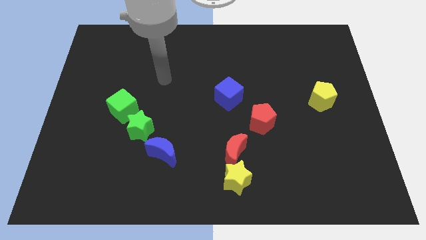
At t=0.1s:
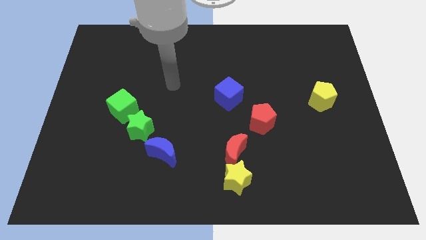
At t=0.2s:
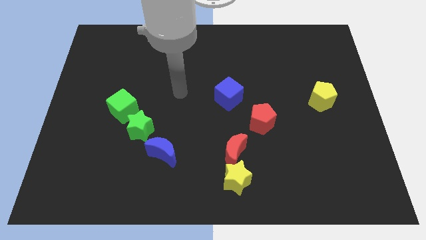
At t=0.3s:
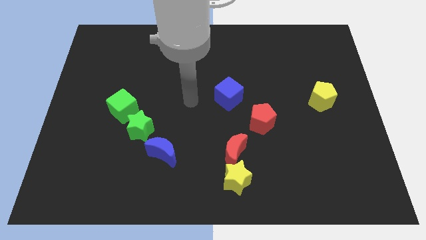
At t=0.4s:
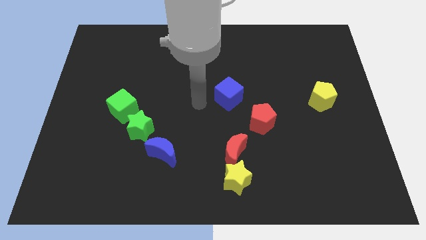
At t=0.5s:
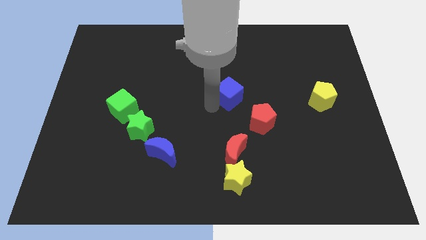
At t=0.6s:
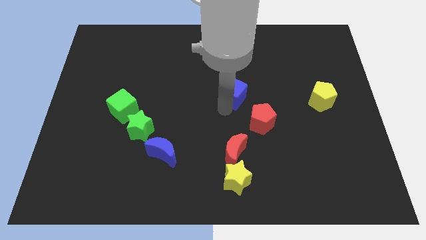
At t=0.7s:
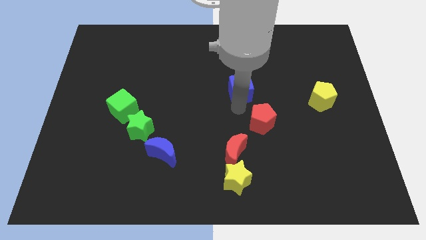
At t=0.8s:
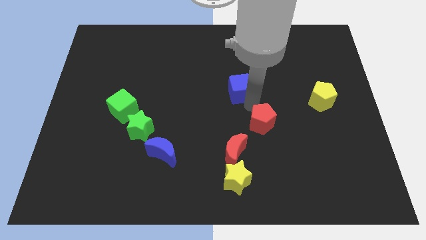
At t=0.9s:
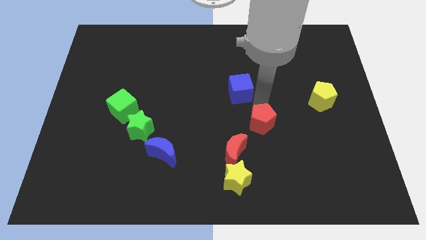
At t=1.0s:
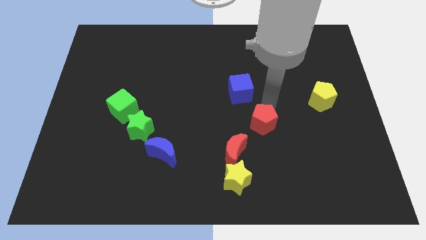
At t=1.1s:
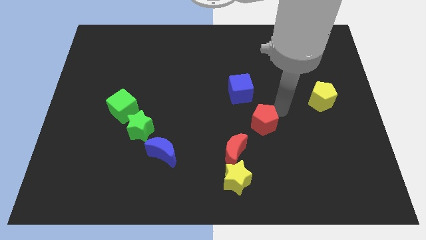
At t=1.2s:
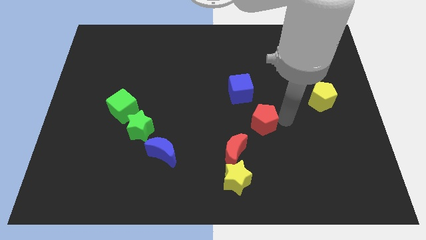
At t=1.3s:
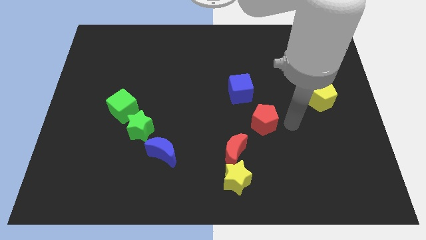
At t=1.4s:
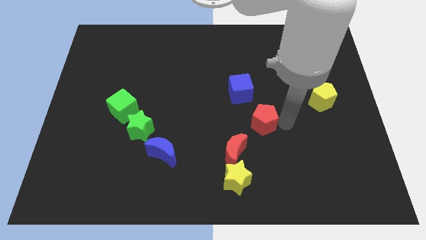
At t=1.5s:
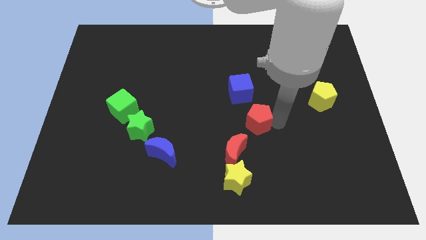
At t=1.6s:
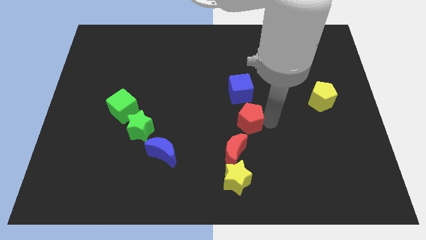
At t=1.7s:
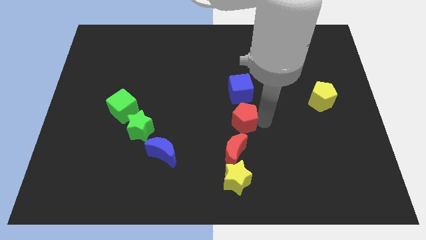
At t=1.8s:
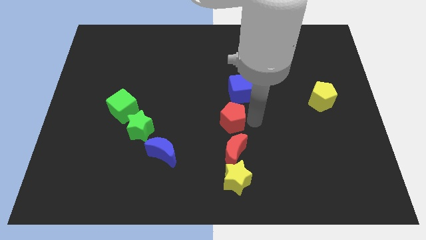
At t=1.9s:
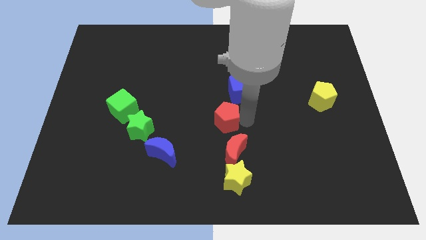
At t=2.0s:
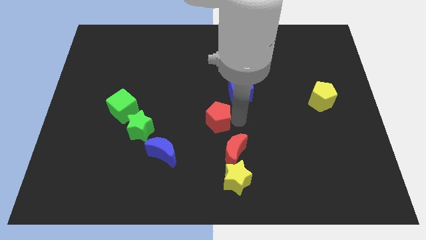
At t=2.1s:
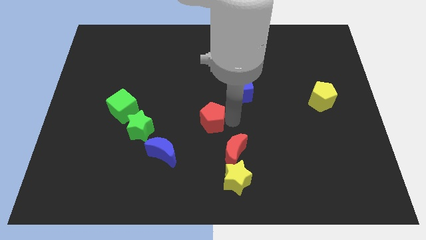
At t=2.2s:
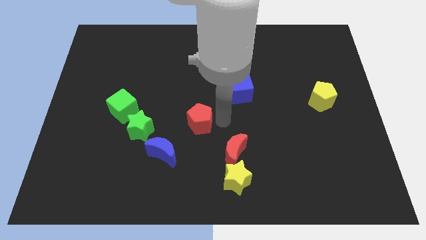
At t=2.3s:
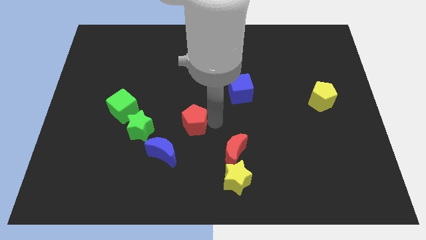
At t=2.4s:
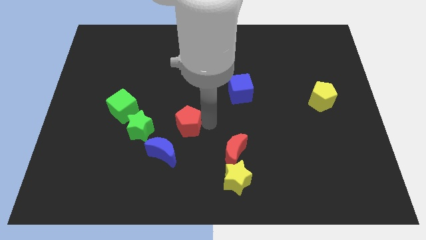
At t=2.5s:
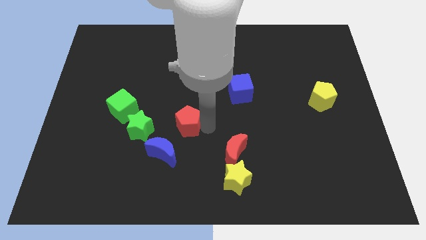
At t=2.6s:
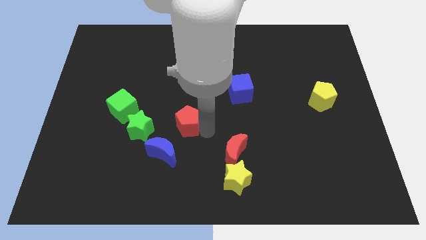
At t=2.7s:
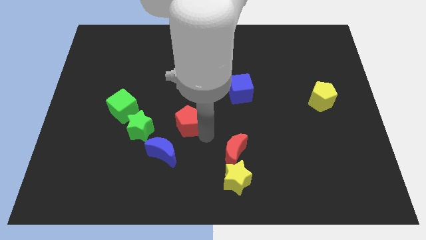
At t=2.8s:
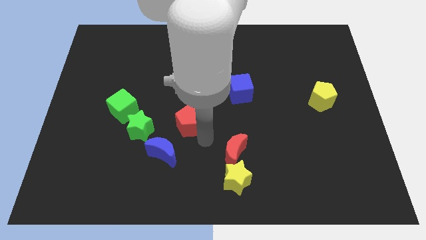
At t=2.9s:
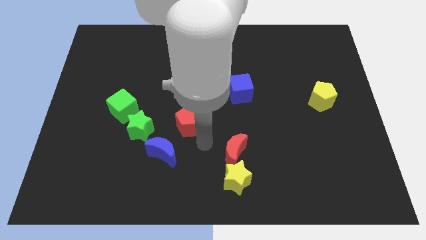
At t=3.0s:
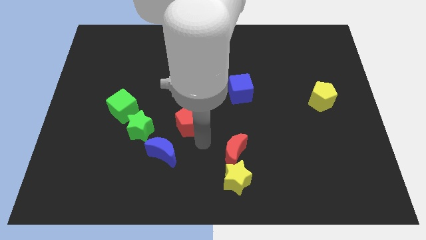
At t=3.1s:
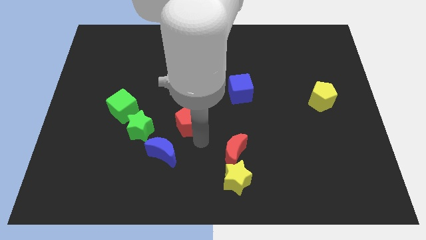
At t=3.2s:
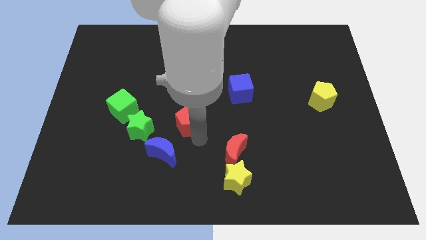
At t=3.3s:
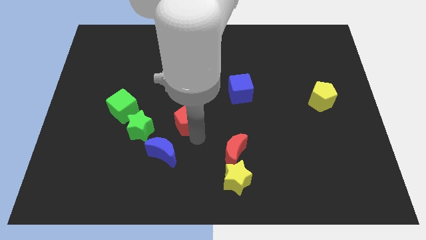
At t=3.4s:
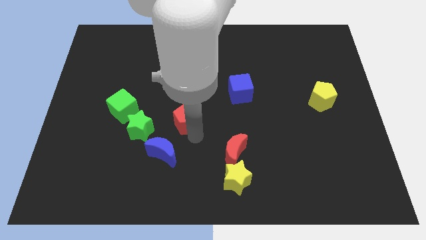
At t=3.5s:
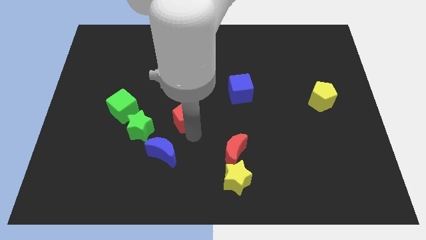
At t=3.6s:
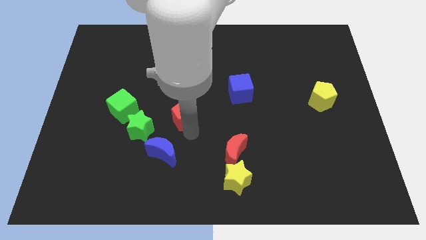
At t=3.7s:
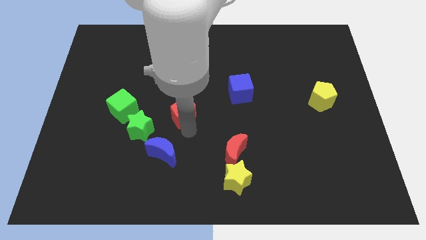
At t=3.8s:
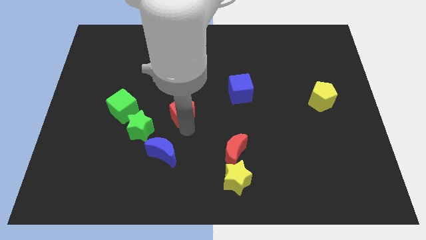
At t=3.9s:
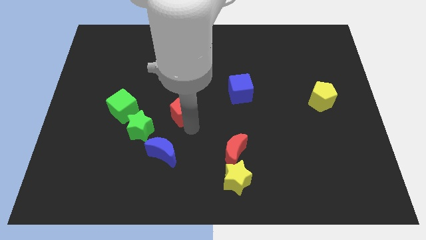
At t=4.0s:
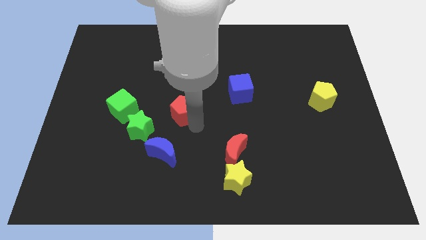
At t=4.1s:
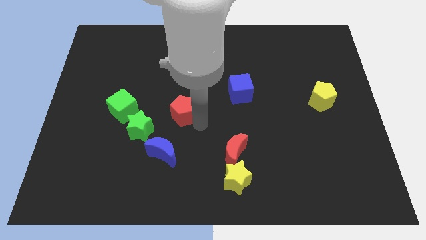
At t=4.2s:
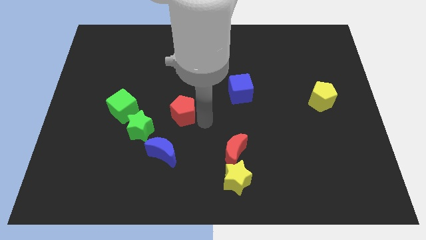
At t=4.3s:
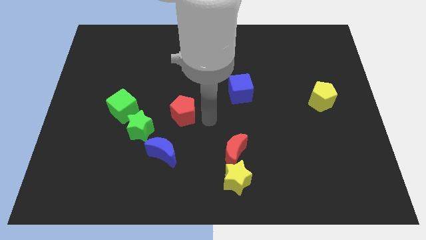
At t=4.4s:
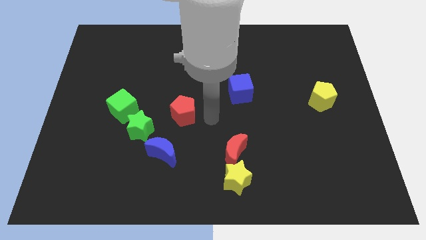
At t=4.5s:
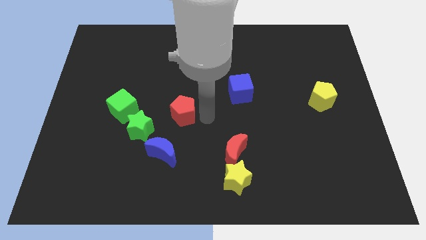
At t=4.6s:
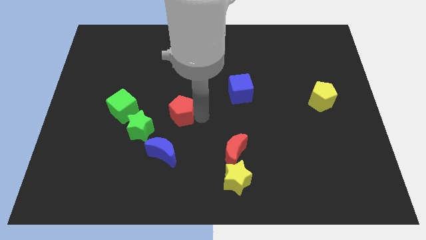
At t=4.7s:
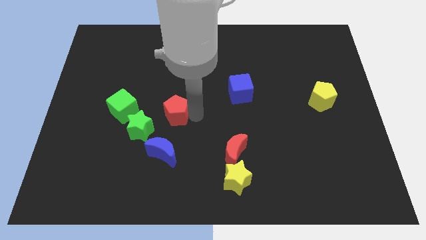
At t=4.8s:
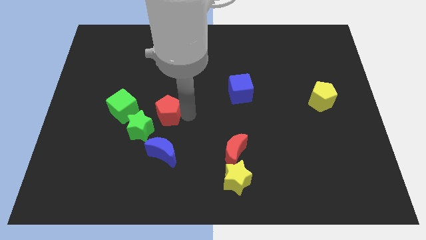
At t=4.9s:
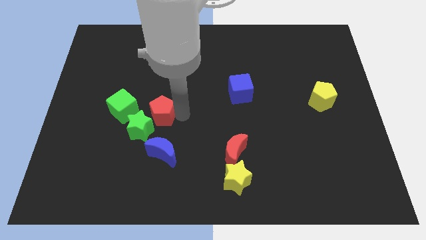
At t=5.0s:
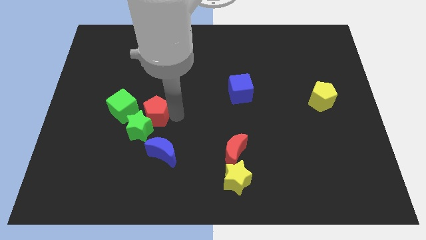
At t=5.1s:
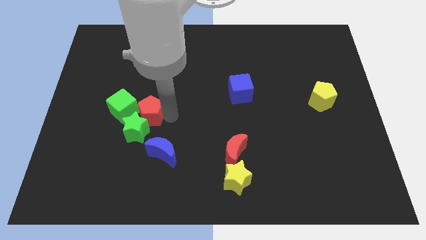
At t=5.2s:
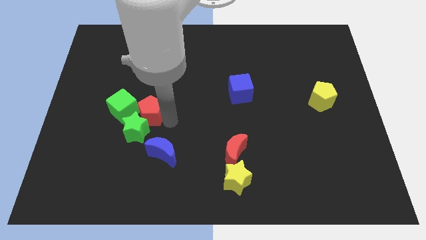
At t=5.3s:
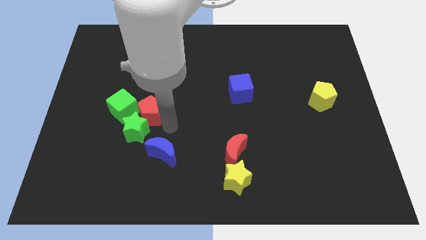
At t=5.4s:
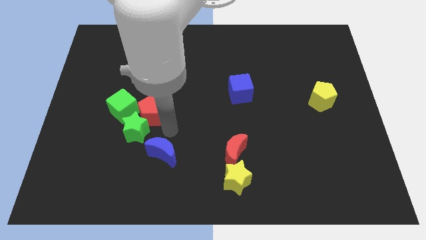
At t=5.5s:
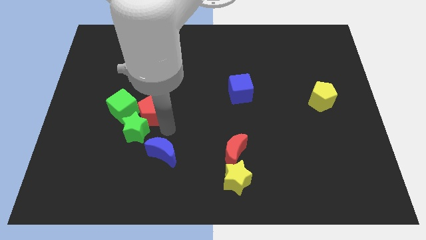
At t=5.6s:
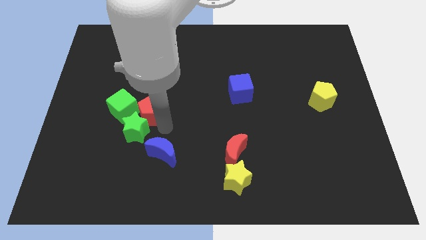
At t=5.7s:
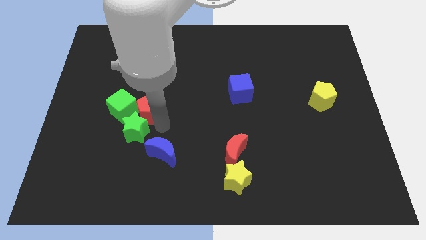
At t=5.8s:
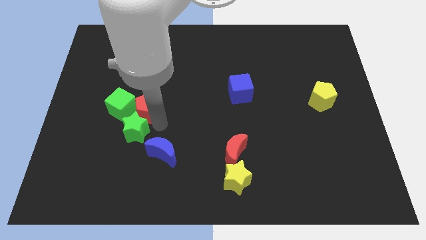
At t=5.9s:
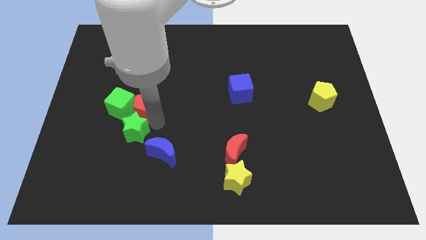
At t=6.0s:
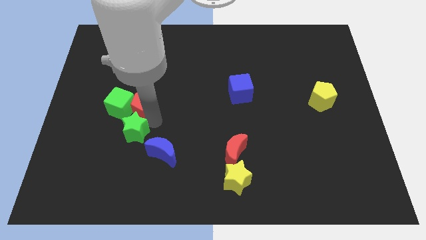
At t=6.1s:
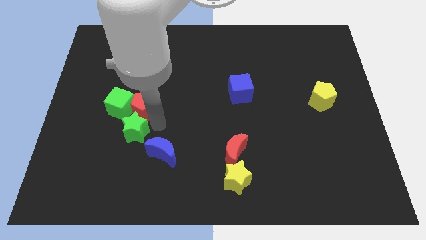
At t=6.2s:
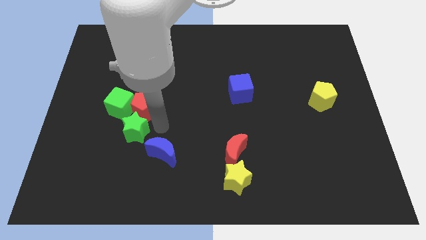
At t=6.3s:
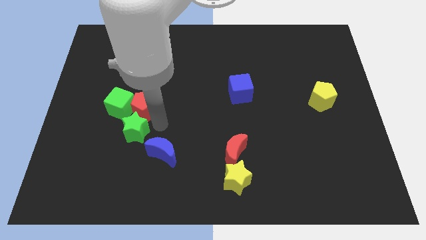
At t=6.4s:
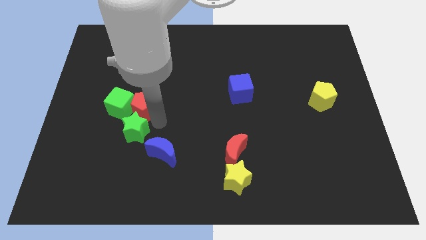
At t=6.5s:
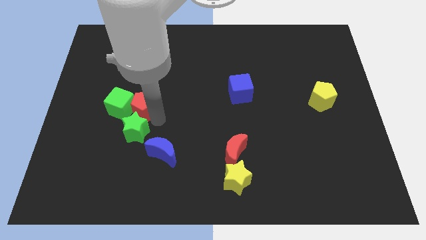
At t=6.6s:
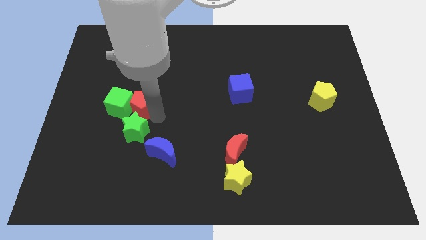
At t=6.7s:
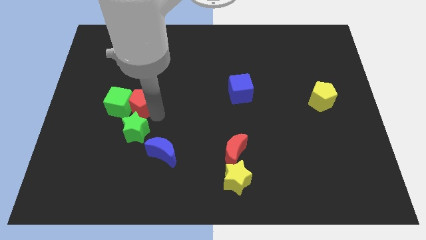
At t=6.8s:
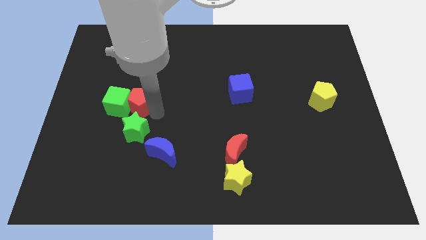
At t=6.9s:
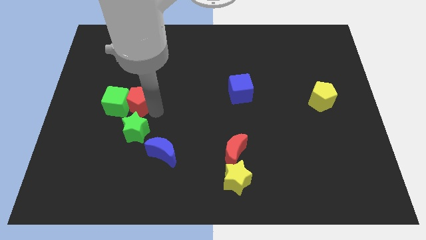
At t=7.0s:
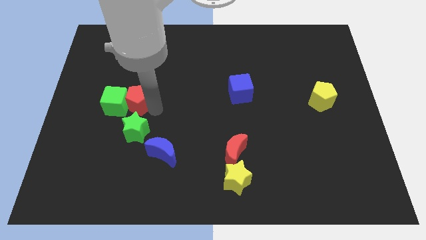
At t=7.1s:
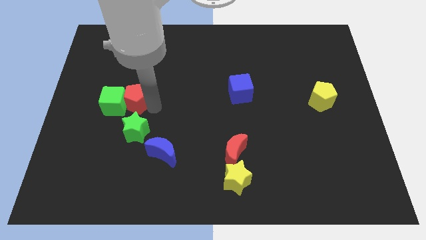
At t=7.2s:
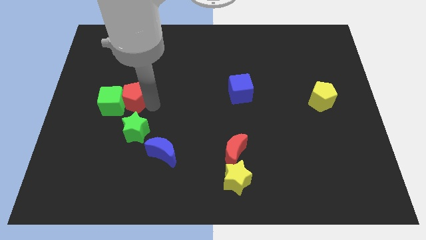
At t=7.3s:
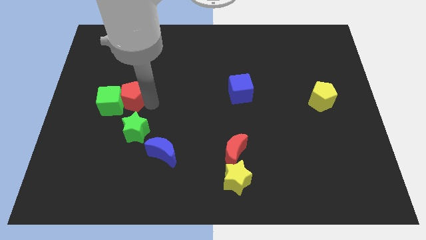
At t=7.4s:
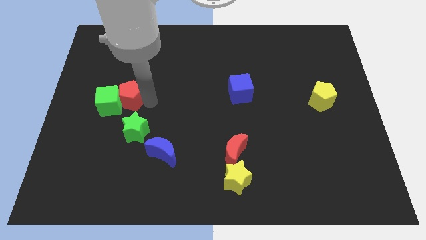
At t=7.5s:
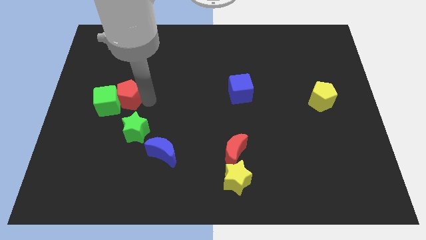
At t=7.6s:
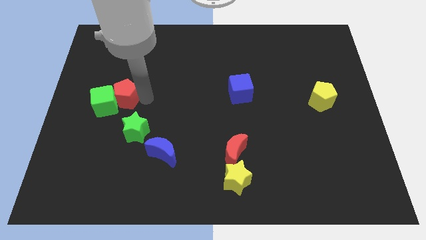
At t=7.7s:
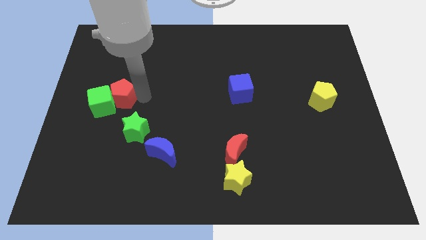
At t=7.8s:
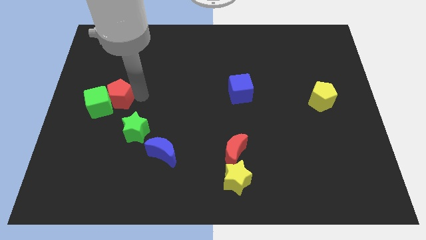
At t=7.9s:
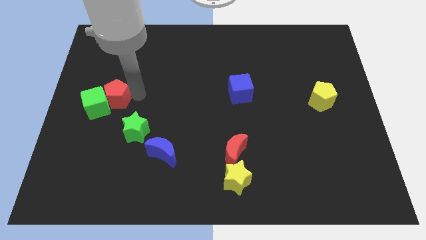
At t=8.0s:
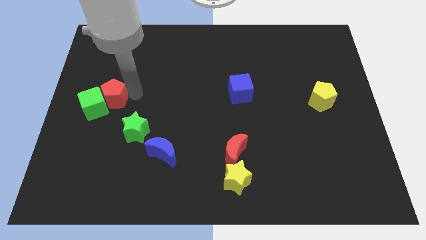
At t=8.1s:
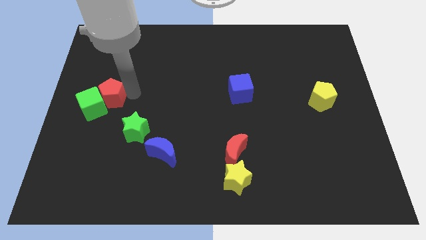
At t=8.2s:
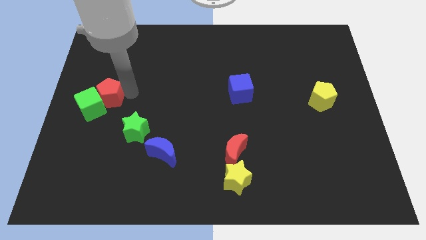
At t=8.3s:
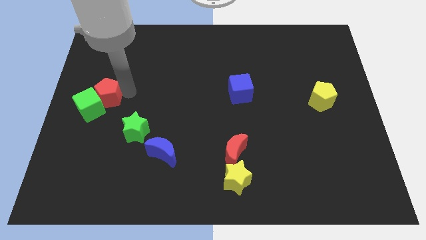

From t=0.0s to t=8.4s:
move the red pentagon to the center left
